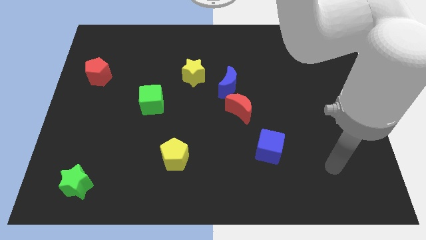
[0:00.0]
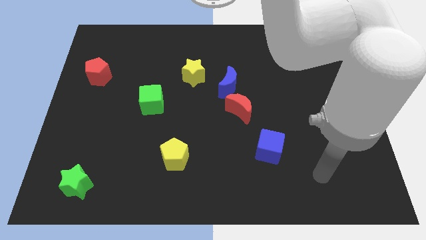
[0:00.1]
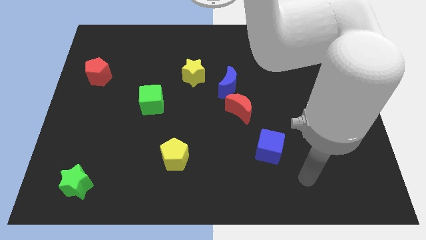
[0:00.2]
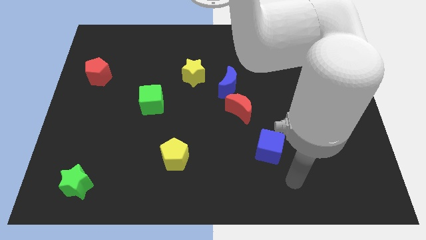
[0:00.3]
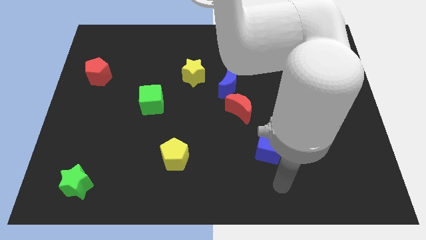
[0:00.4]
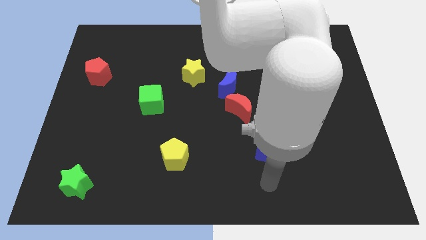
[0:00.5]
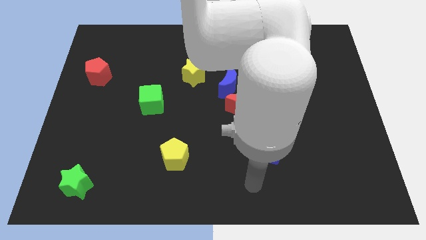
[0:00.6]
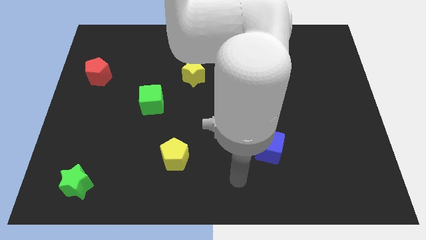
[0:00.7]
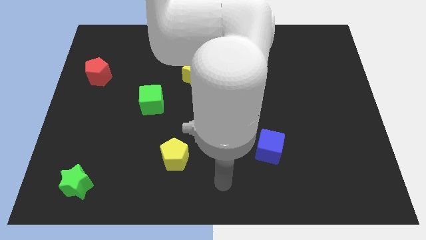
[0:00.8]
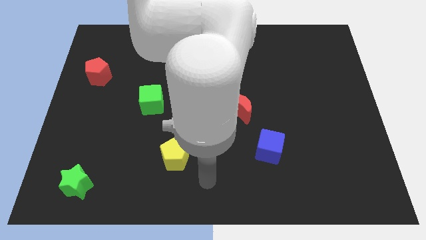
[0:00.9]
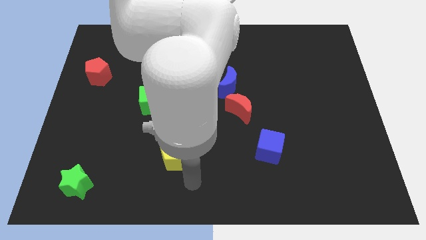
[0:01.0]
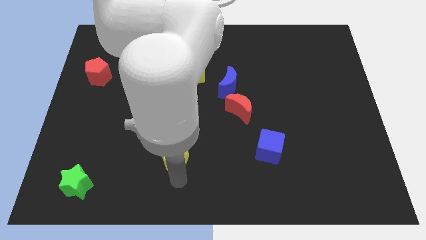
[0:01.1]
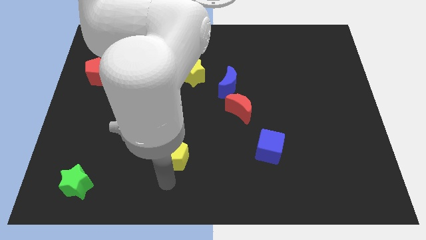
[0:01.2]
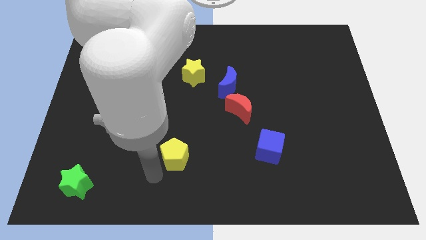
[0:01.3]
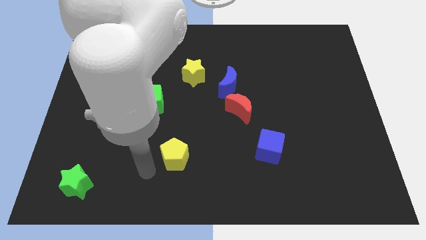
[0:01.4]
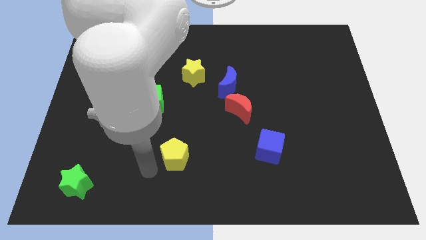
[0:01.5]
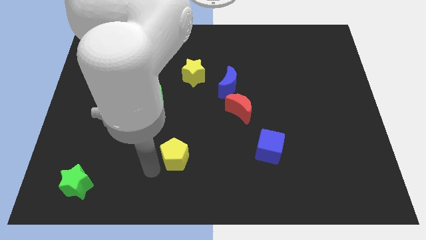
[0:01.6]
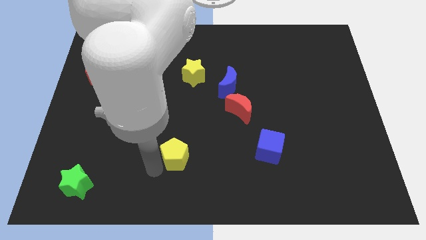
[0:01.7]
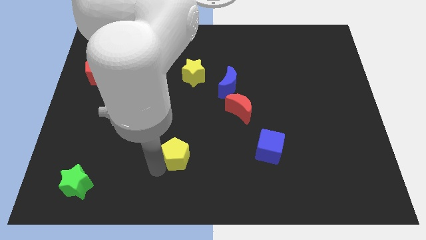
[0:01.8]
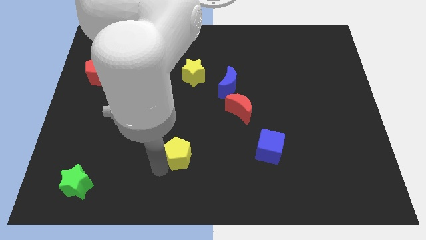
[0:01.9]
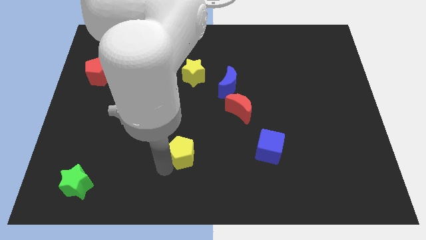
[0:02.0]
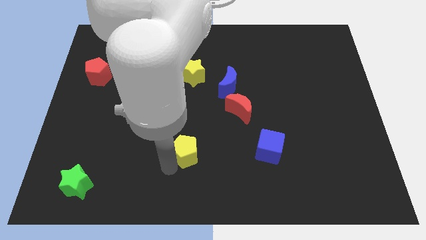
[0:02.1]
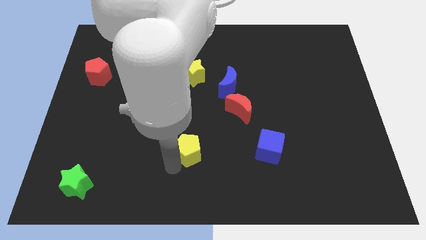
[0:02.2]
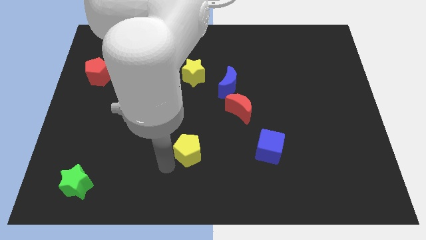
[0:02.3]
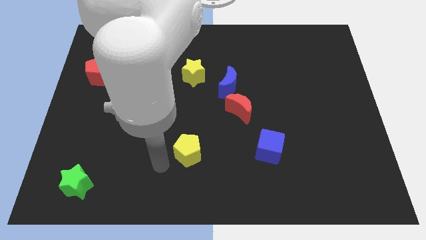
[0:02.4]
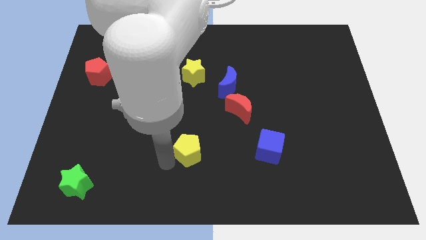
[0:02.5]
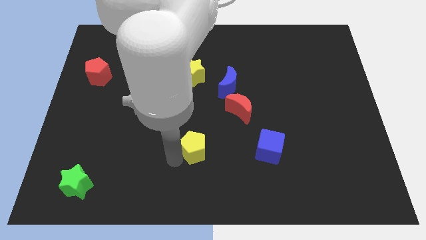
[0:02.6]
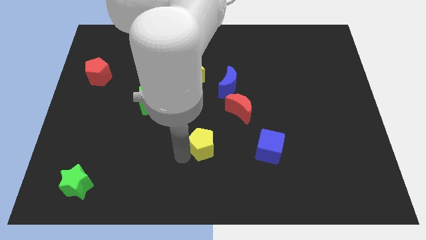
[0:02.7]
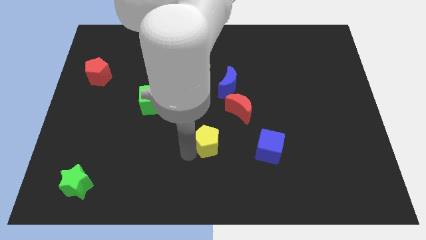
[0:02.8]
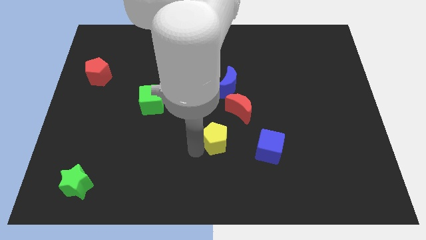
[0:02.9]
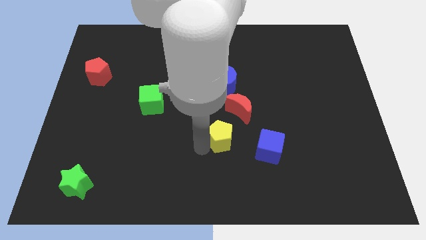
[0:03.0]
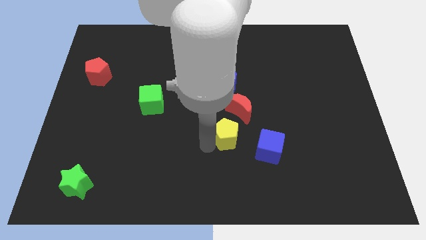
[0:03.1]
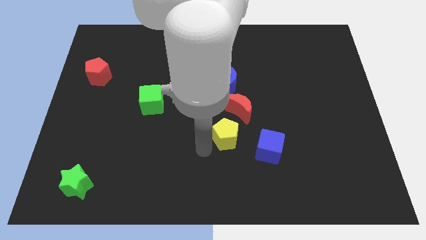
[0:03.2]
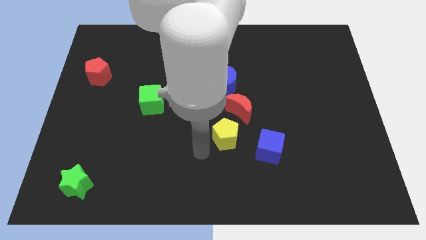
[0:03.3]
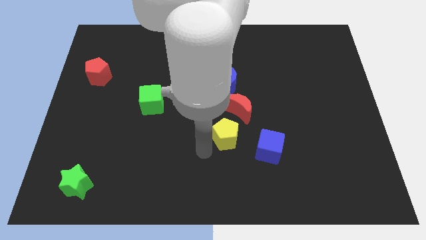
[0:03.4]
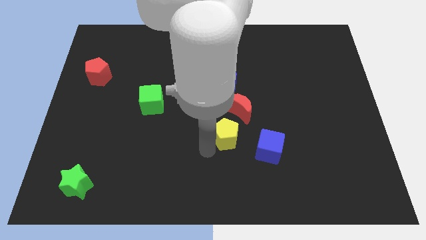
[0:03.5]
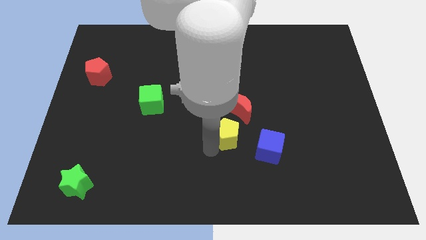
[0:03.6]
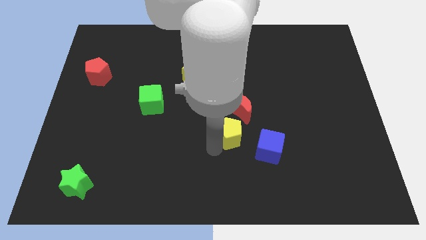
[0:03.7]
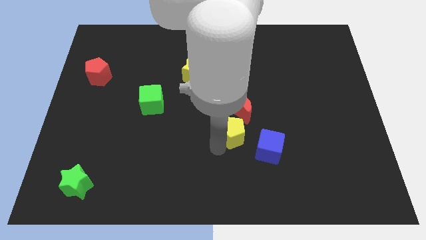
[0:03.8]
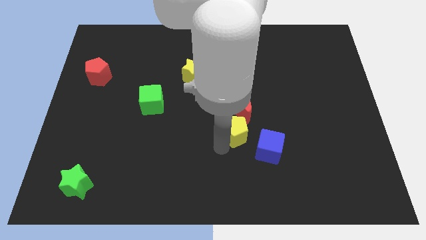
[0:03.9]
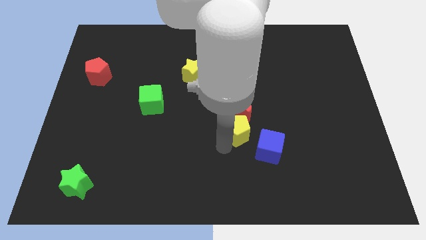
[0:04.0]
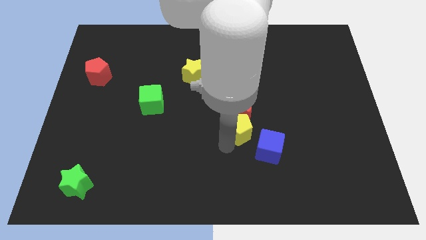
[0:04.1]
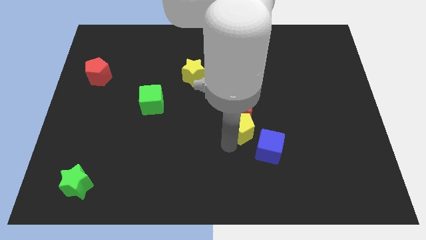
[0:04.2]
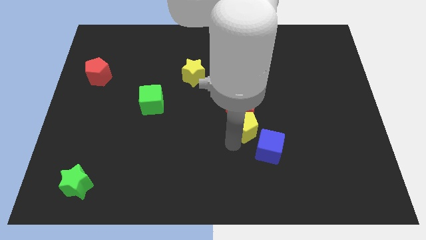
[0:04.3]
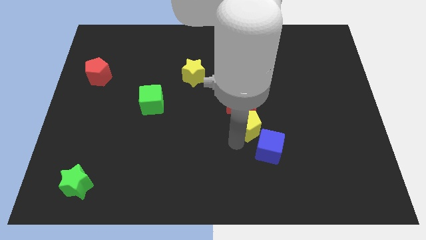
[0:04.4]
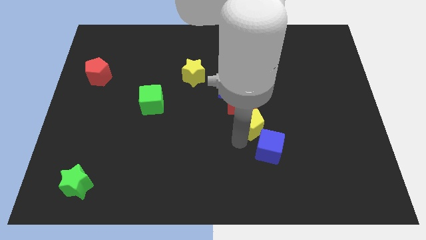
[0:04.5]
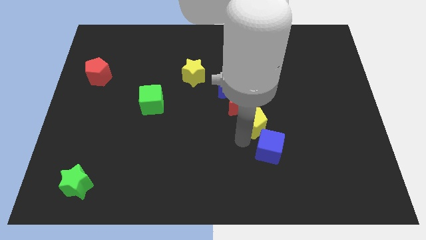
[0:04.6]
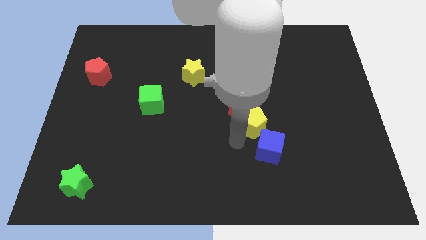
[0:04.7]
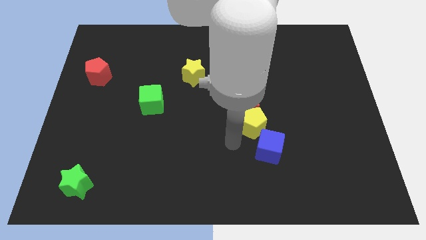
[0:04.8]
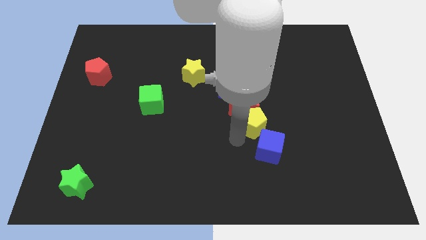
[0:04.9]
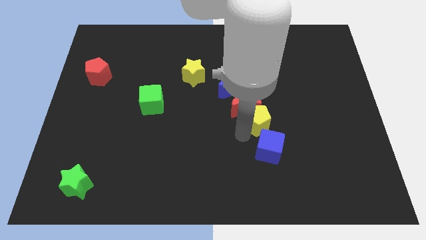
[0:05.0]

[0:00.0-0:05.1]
push the yellow pentagon just right of the red moon

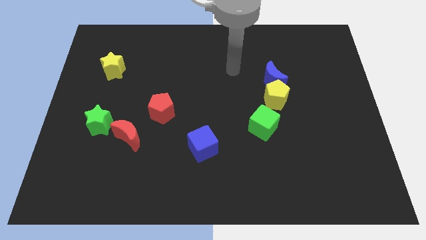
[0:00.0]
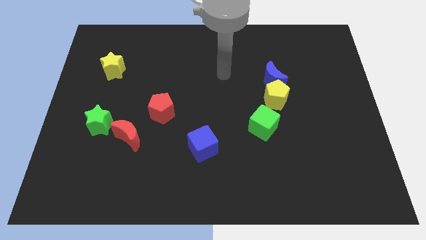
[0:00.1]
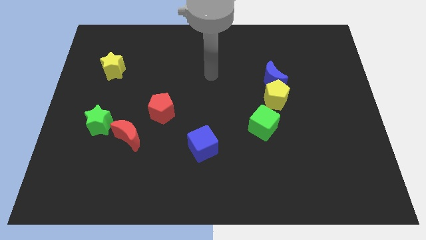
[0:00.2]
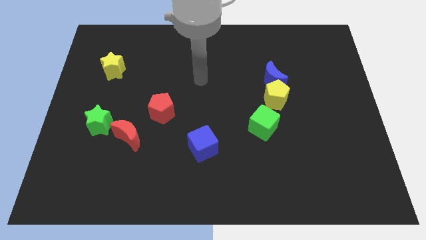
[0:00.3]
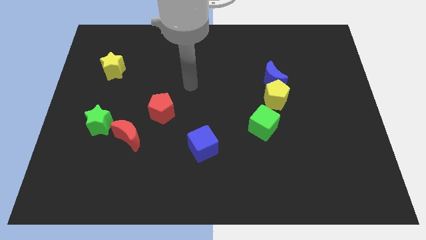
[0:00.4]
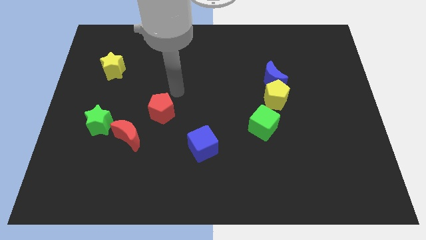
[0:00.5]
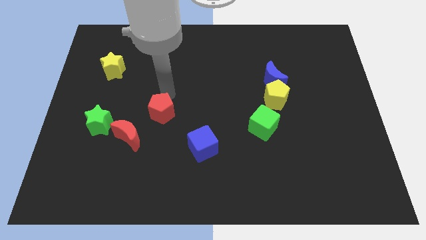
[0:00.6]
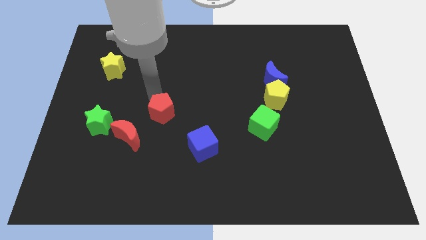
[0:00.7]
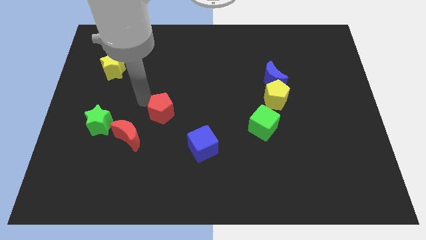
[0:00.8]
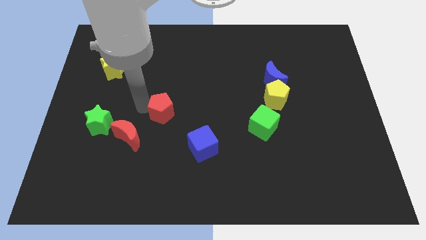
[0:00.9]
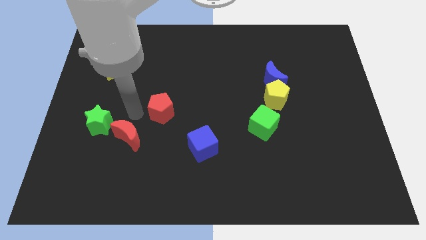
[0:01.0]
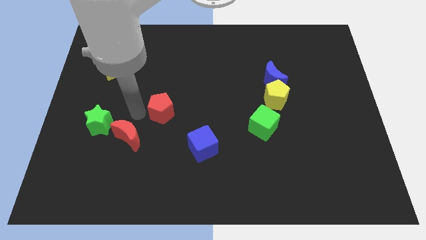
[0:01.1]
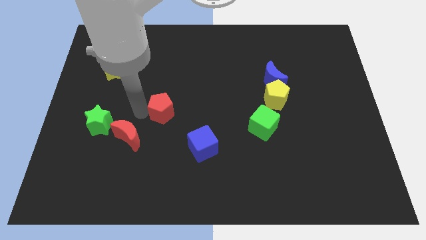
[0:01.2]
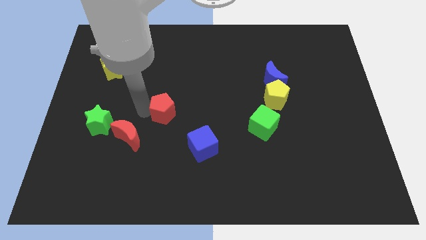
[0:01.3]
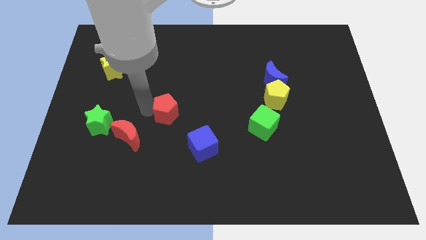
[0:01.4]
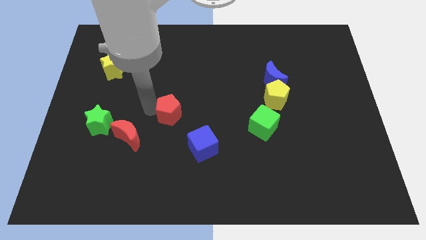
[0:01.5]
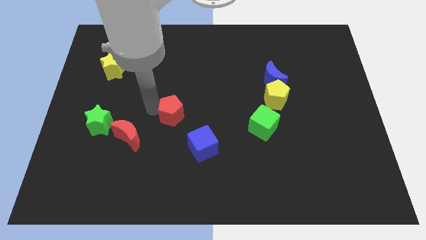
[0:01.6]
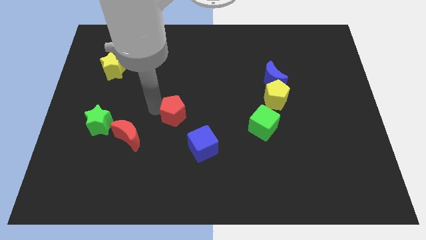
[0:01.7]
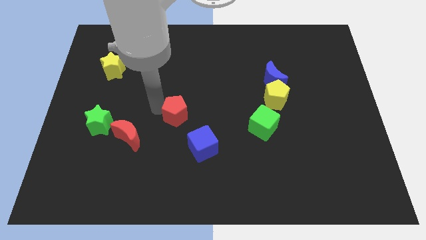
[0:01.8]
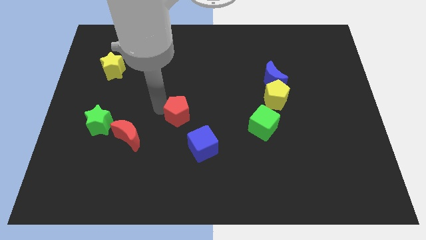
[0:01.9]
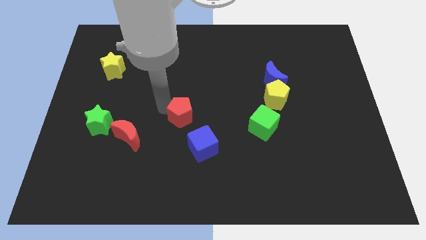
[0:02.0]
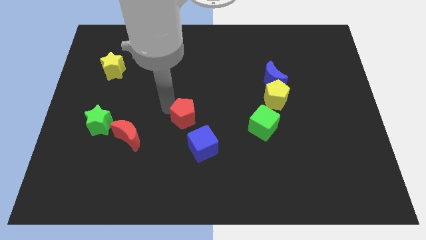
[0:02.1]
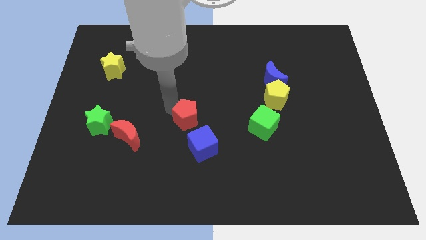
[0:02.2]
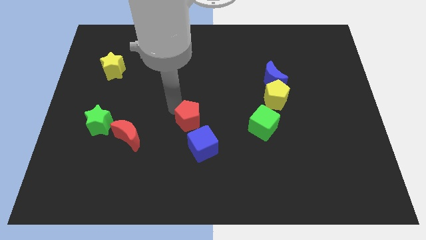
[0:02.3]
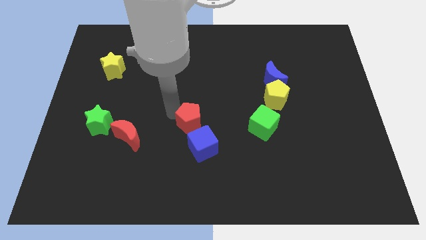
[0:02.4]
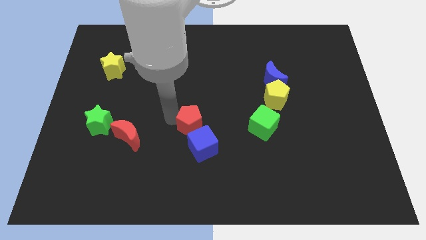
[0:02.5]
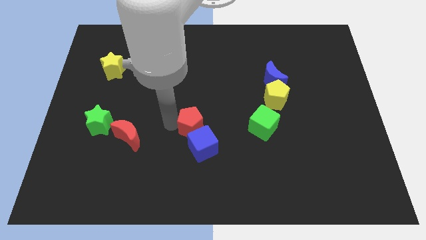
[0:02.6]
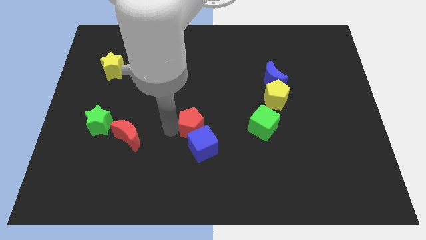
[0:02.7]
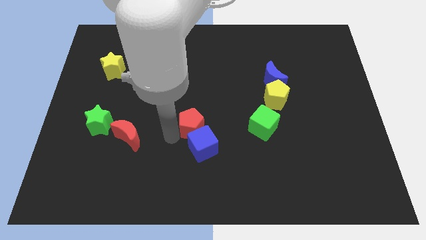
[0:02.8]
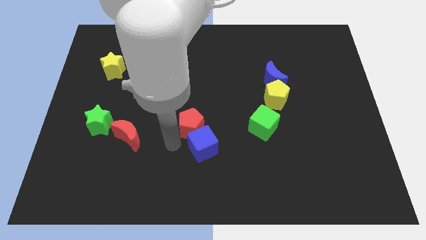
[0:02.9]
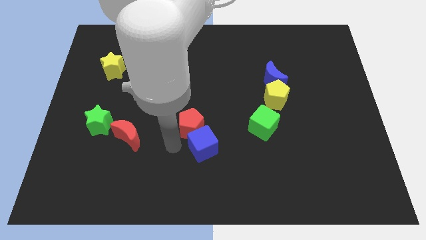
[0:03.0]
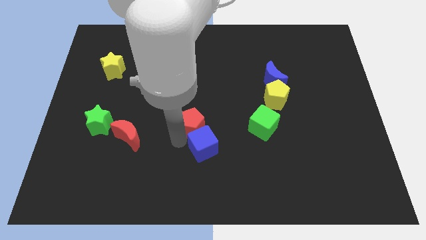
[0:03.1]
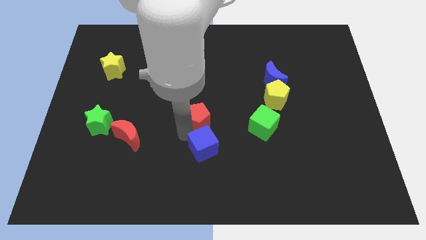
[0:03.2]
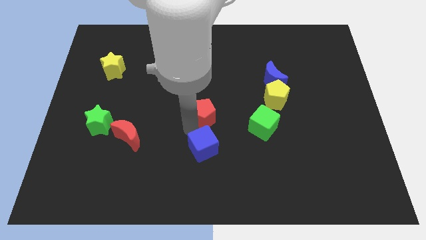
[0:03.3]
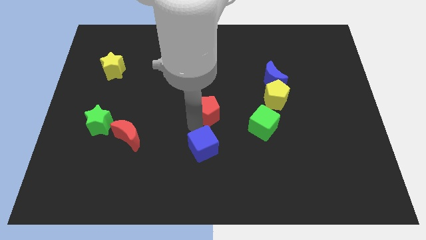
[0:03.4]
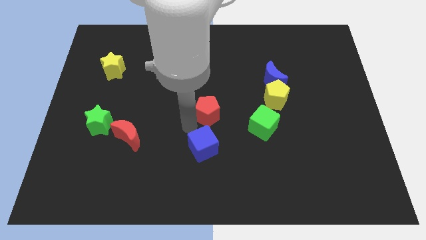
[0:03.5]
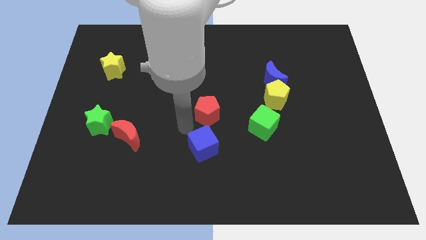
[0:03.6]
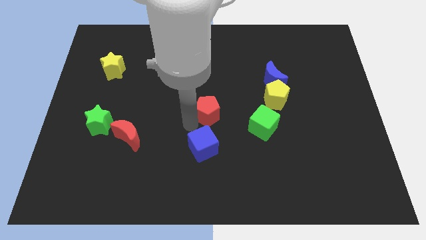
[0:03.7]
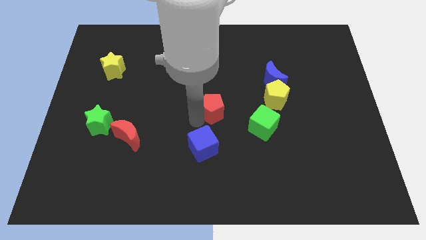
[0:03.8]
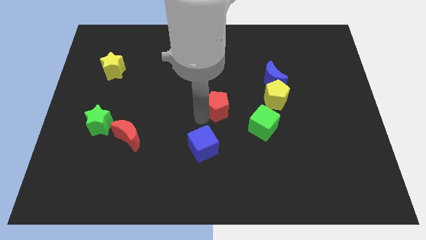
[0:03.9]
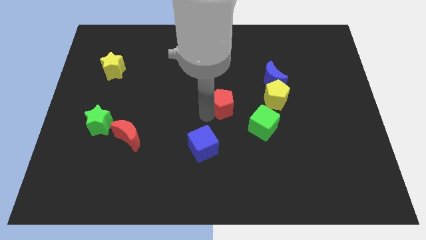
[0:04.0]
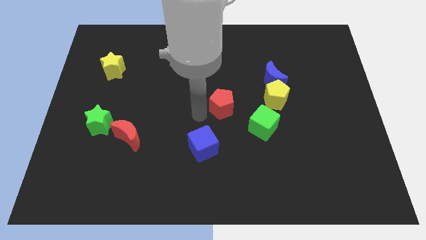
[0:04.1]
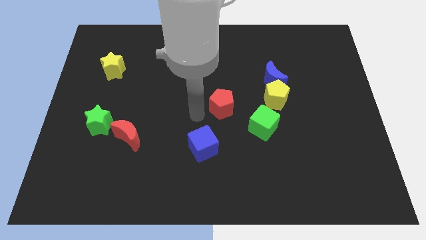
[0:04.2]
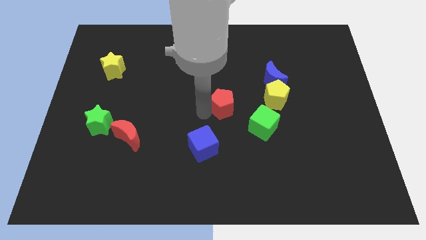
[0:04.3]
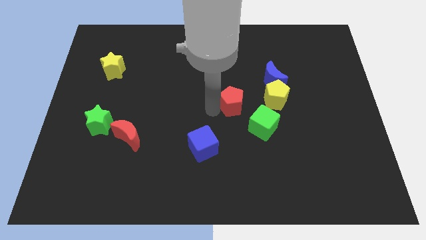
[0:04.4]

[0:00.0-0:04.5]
move the red pentagon diagonally down and to the left of the blue moon
